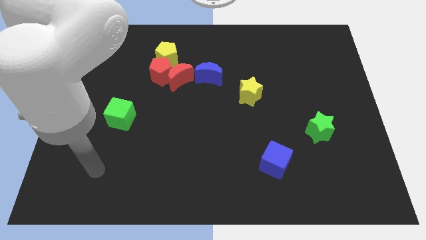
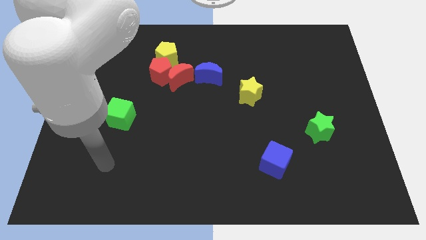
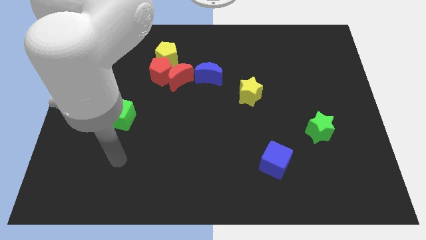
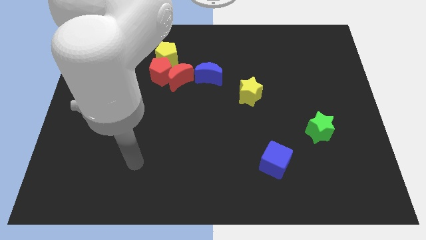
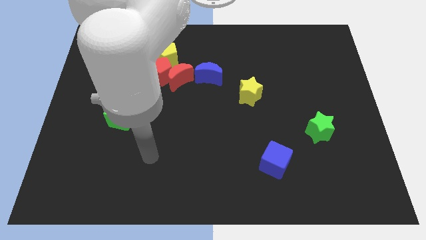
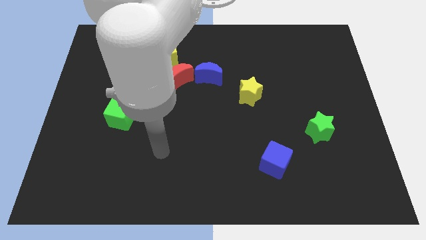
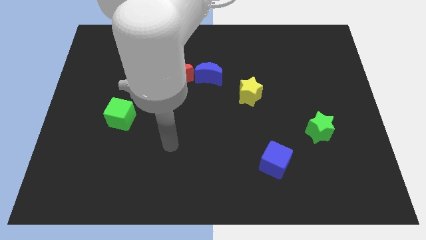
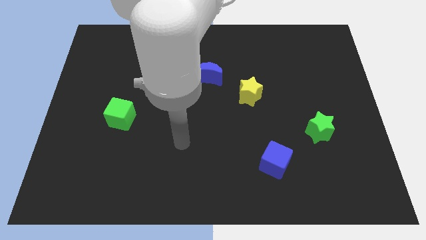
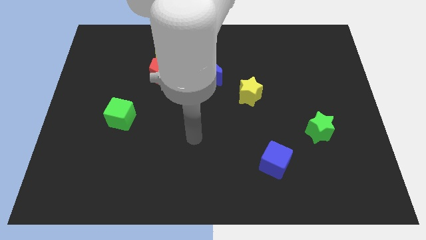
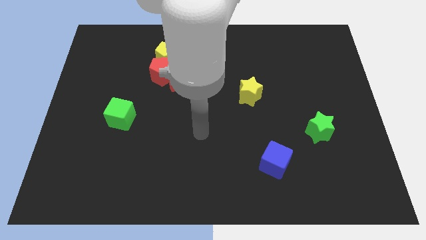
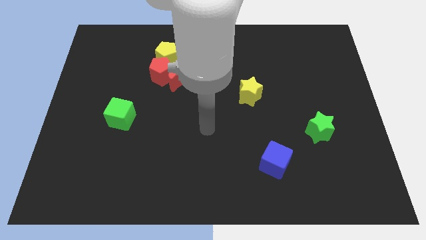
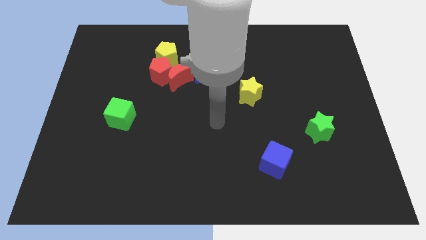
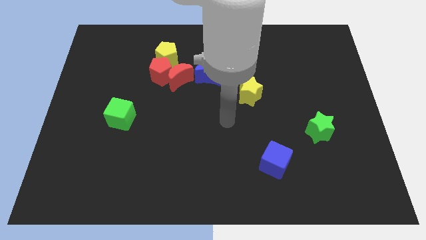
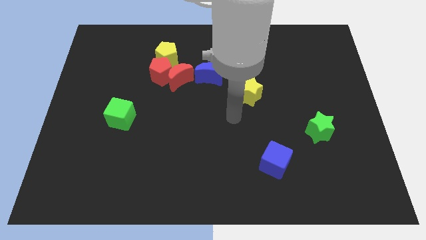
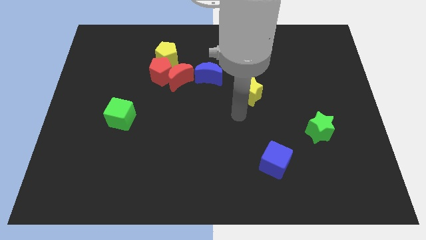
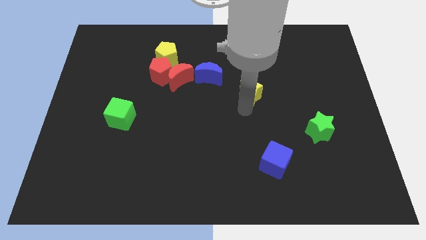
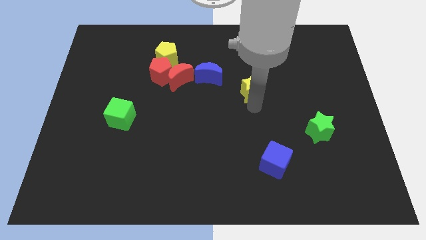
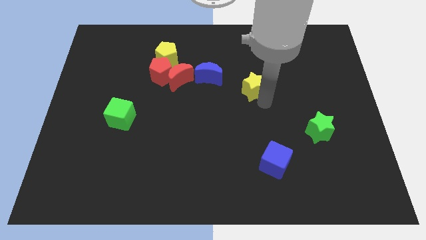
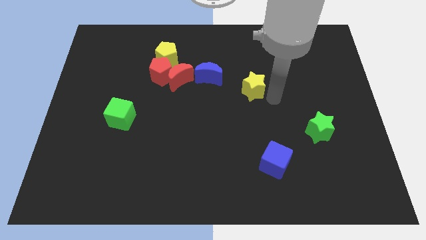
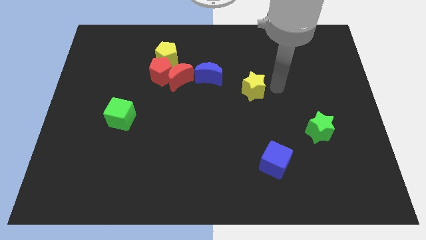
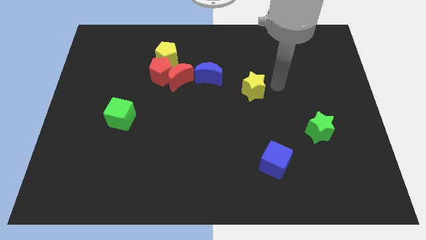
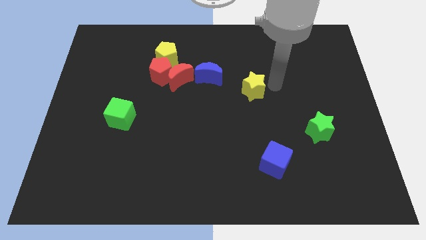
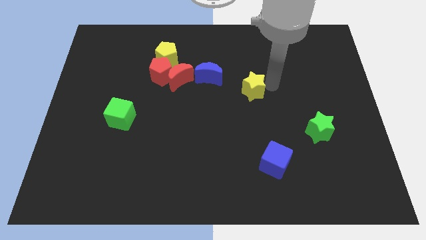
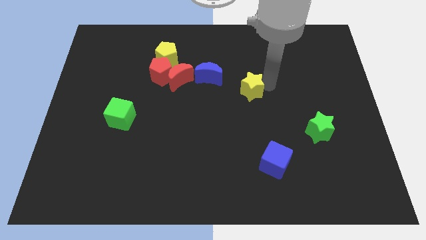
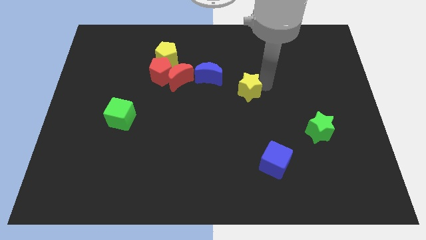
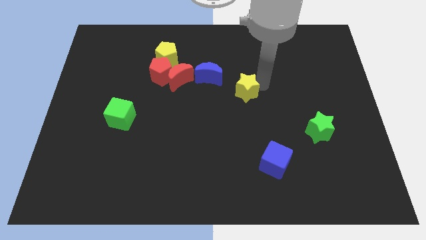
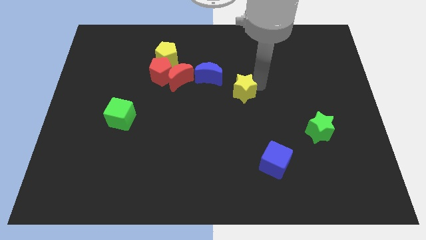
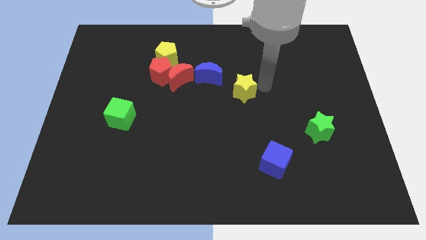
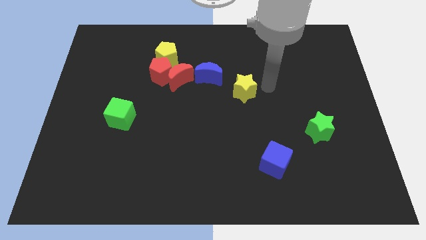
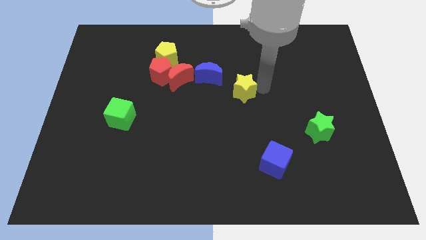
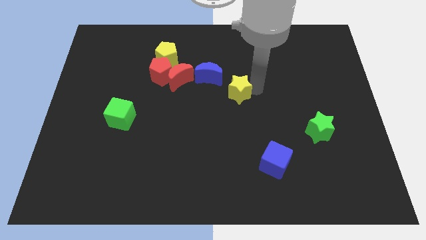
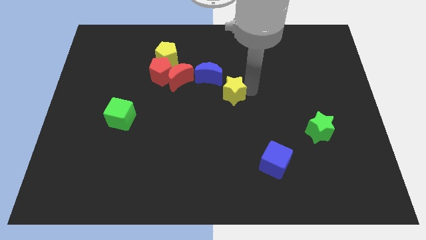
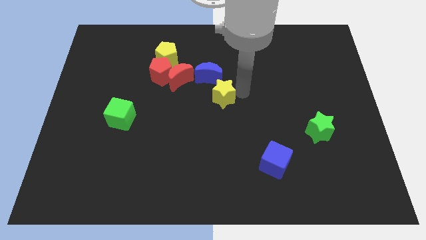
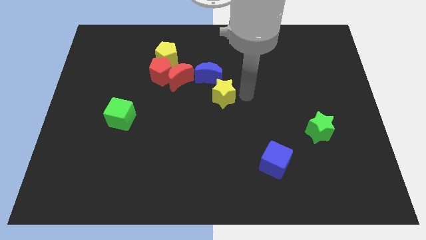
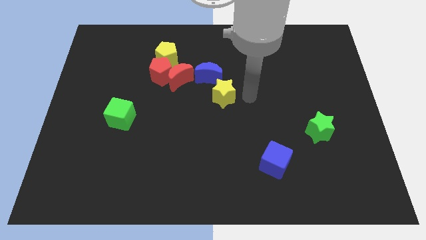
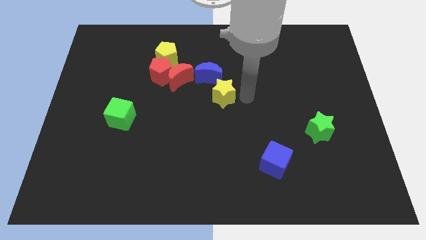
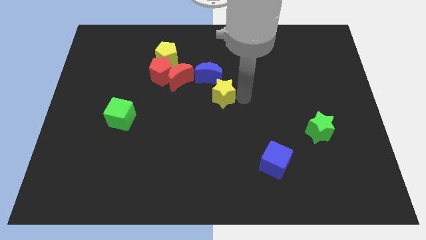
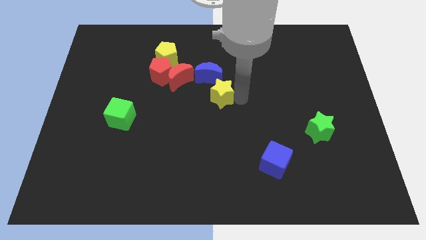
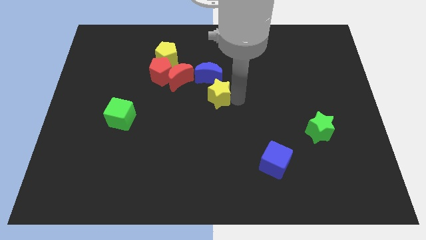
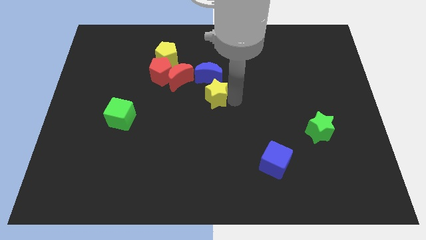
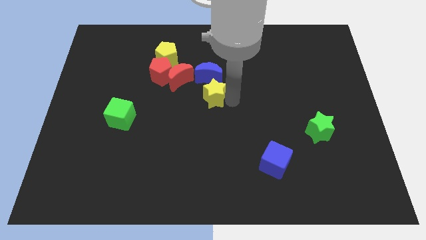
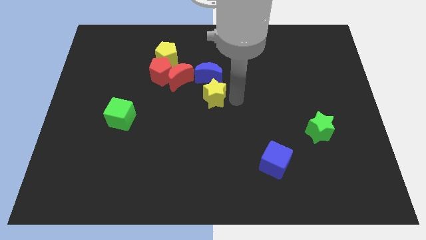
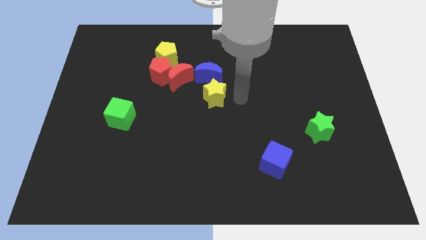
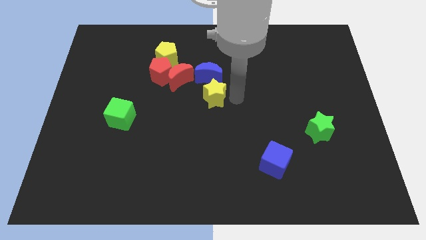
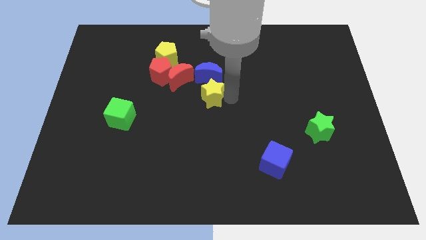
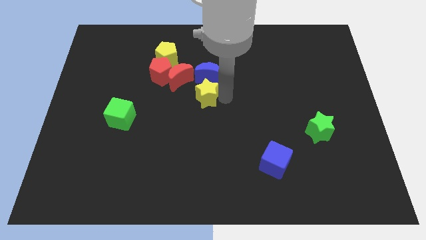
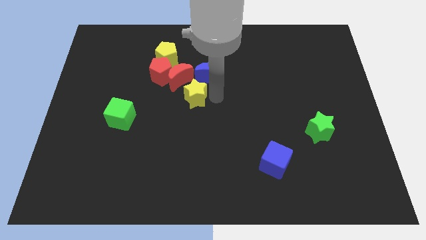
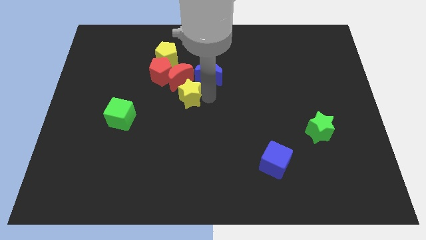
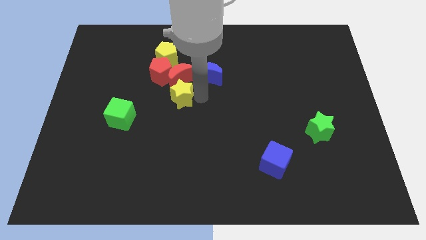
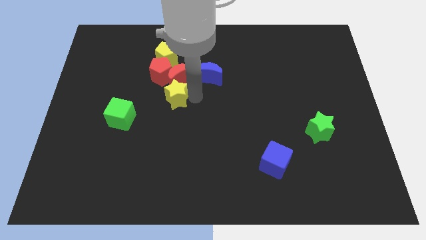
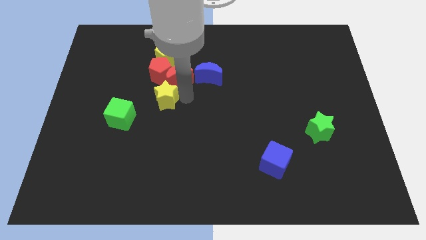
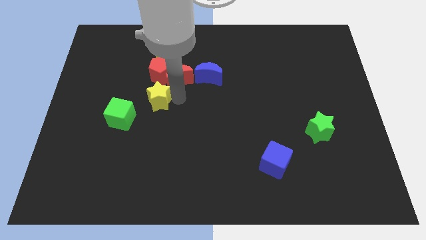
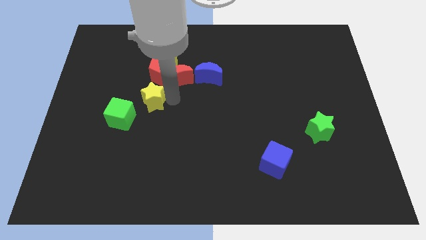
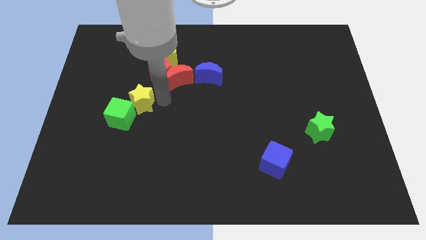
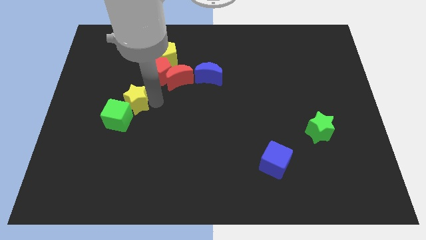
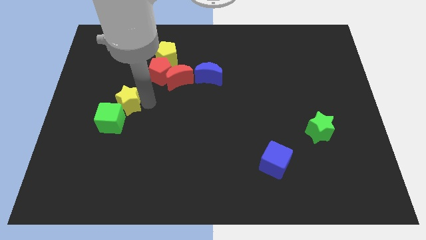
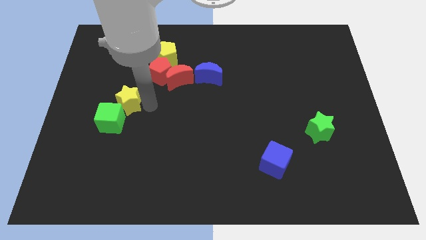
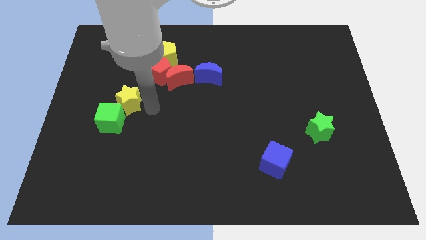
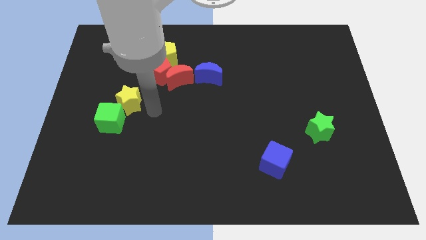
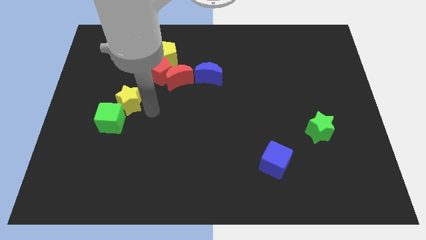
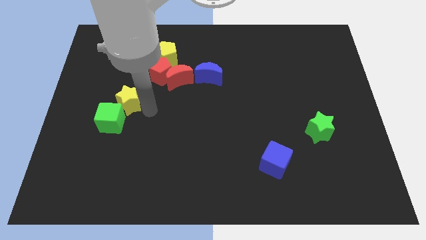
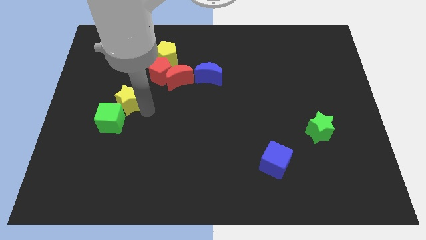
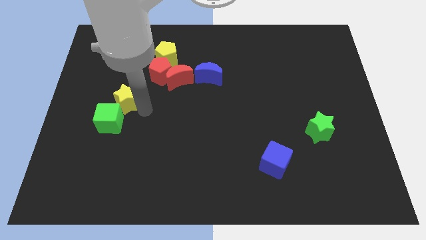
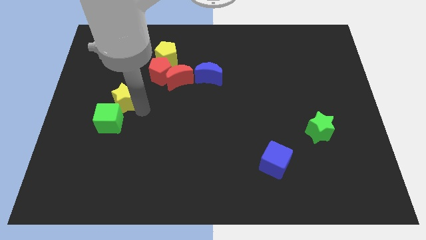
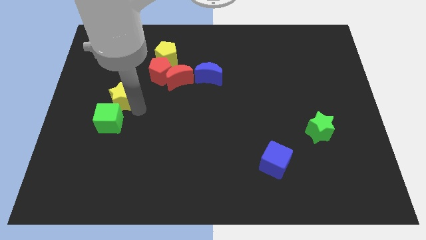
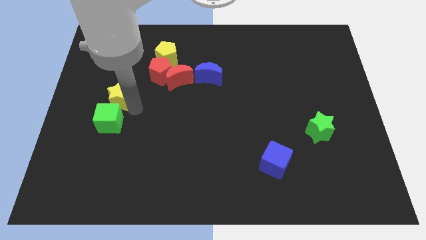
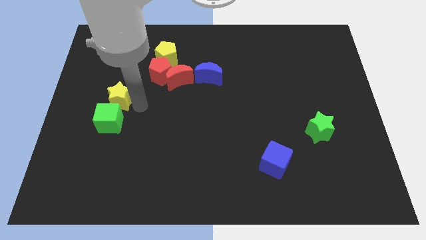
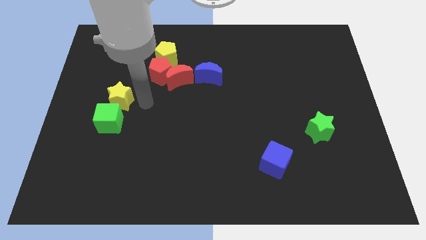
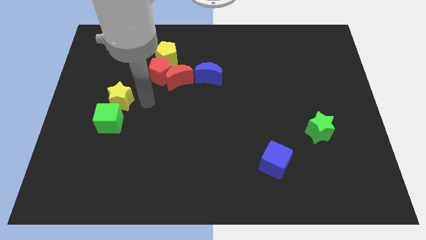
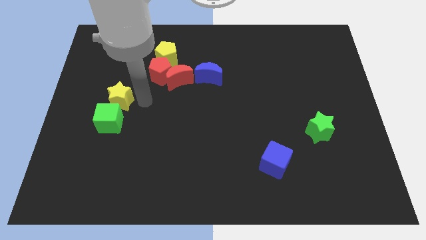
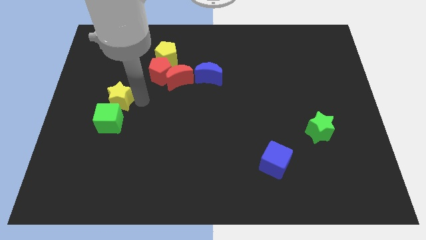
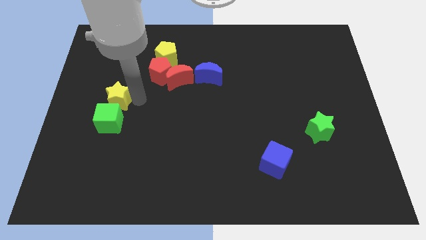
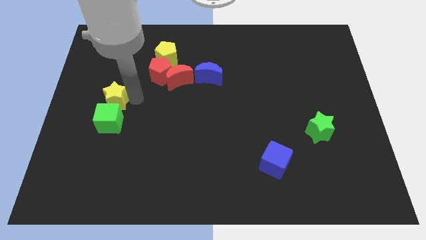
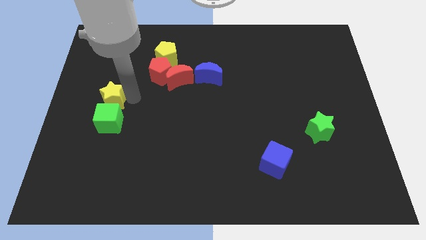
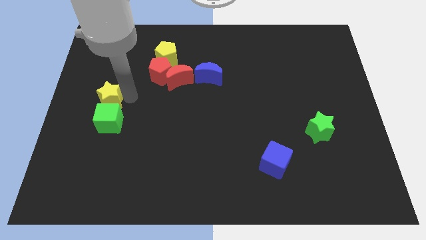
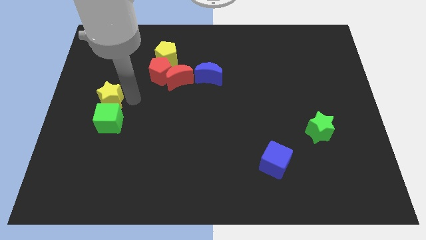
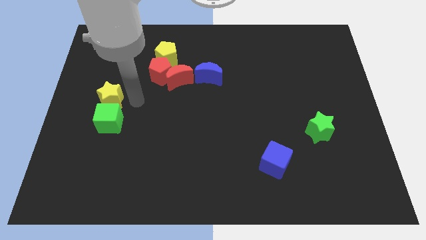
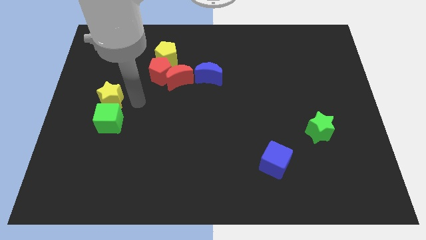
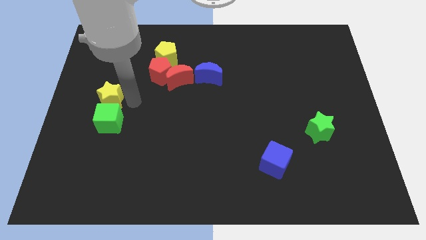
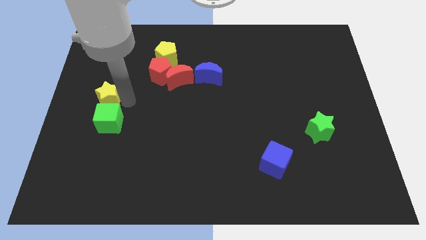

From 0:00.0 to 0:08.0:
move the yellow star to the left side
